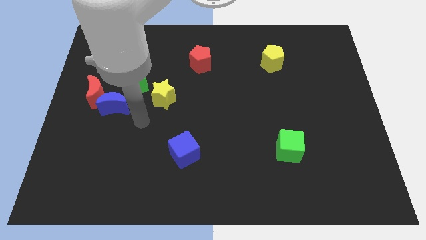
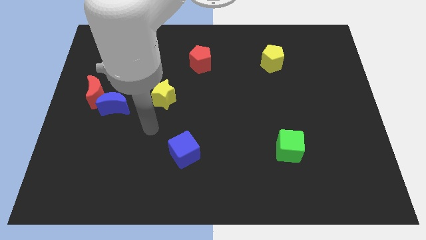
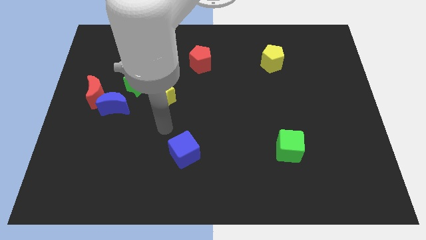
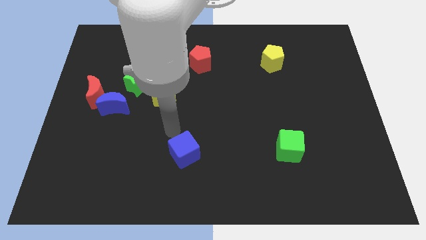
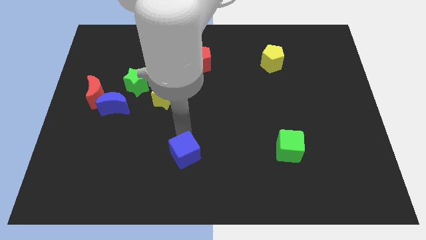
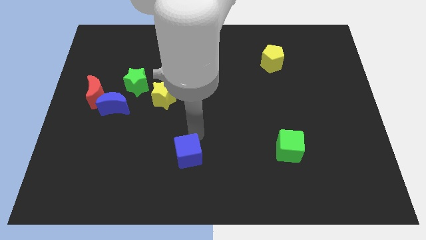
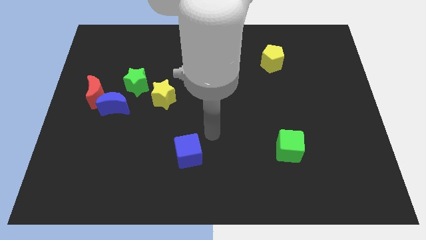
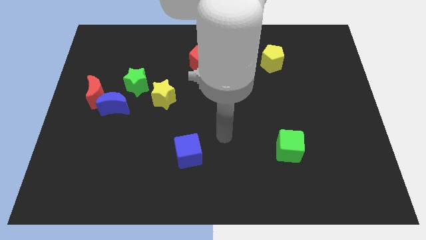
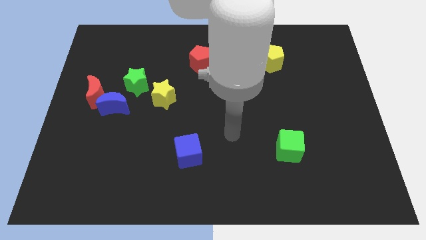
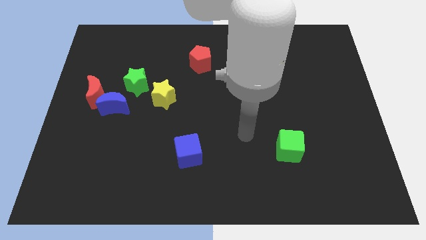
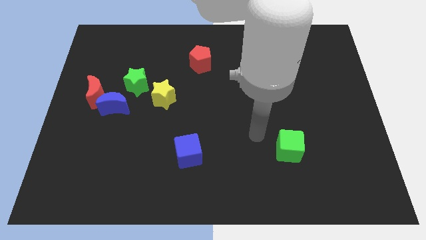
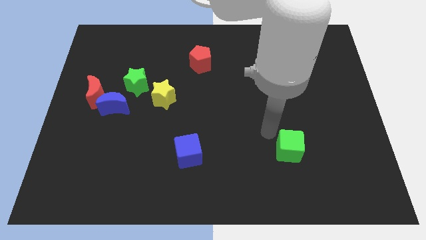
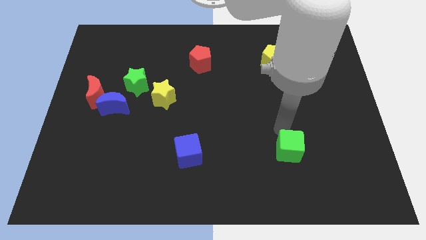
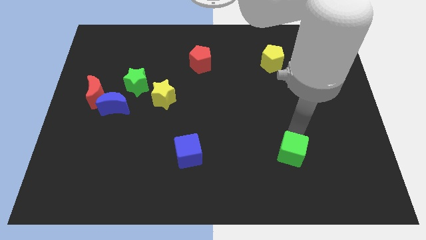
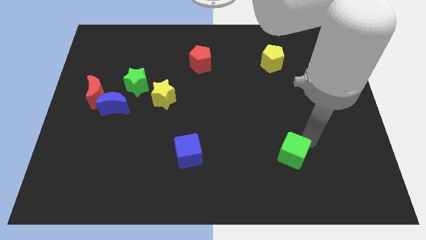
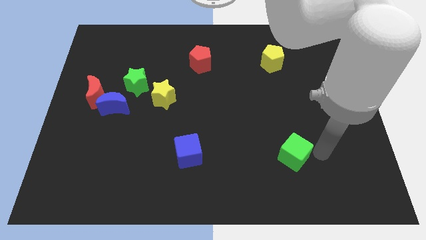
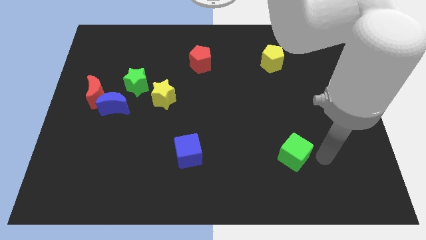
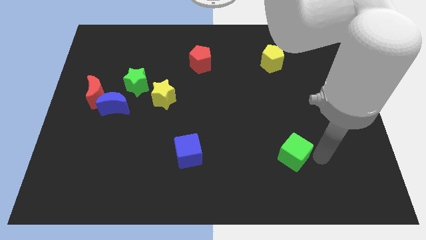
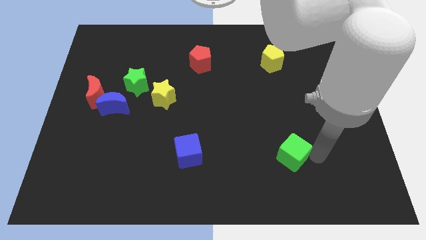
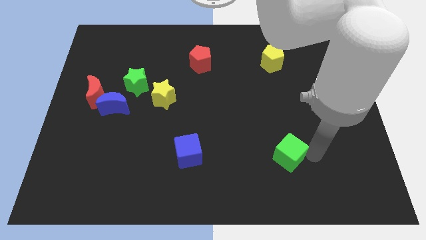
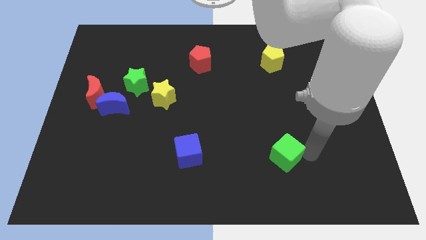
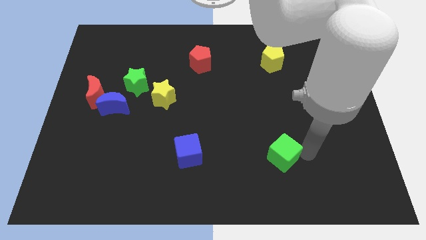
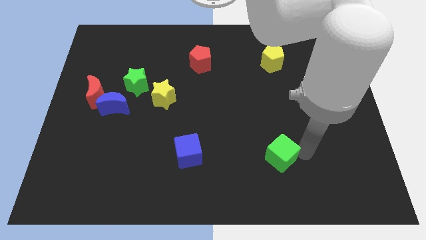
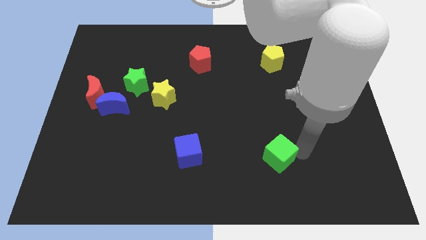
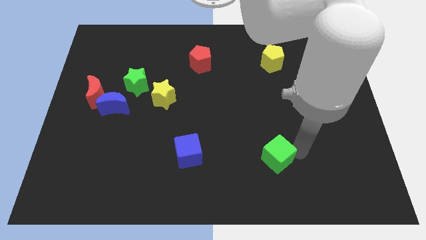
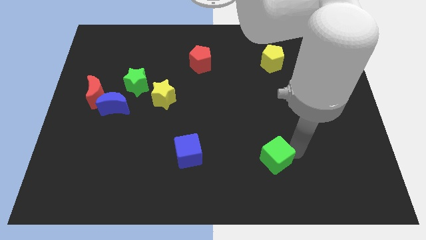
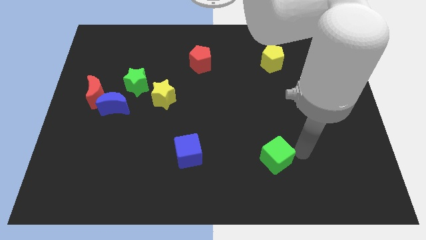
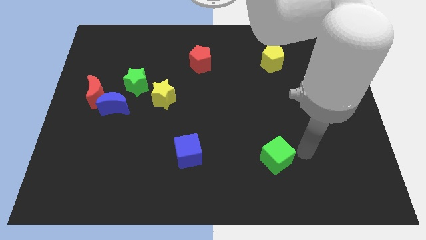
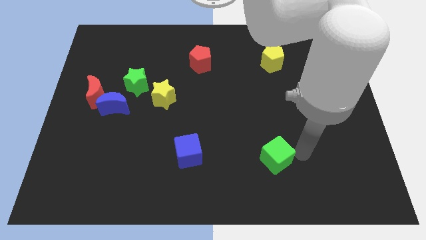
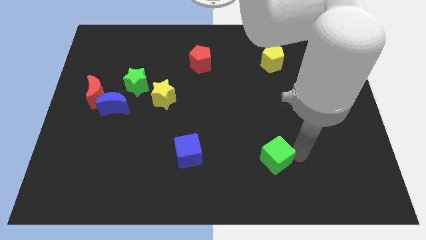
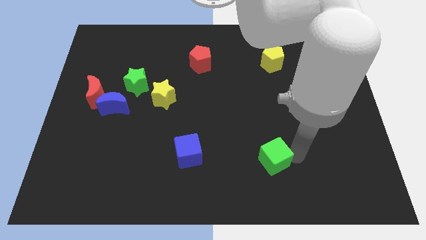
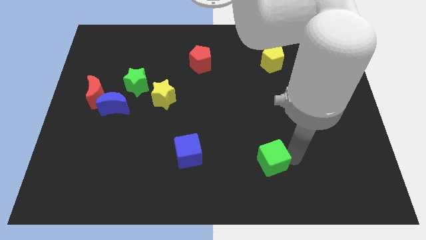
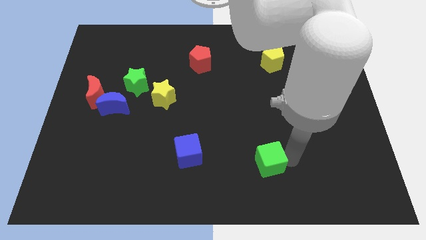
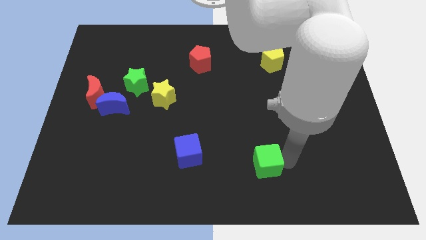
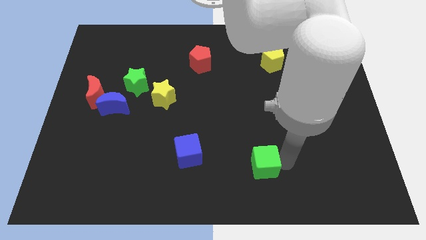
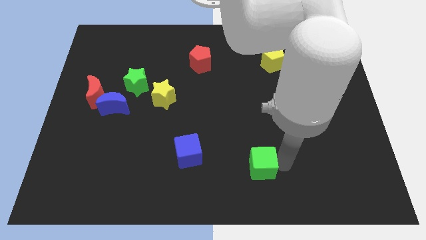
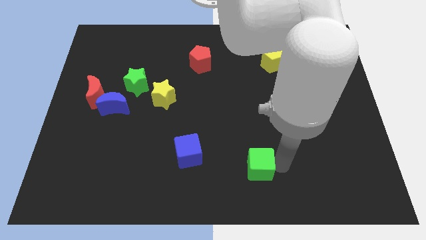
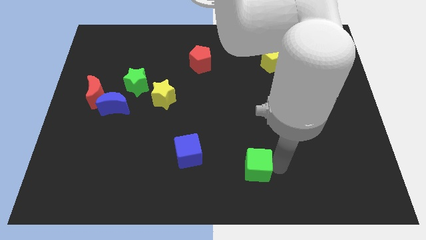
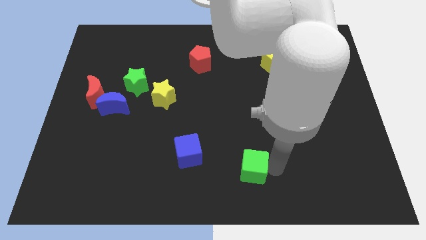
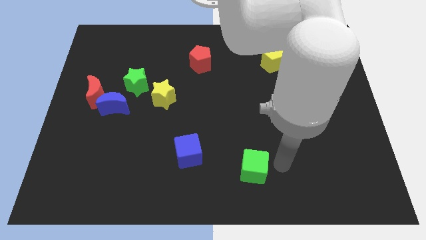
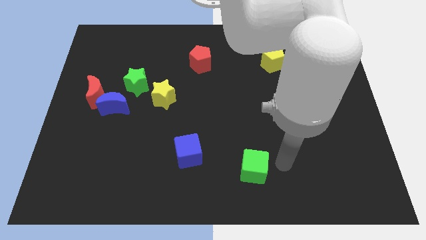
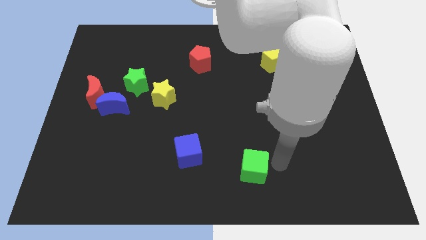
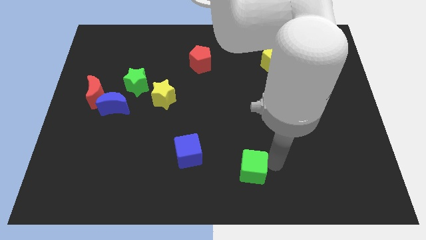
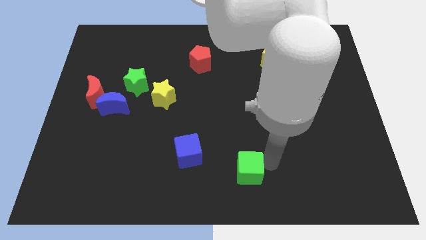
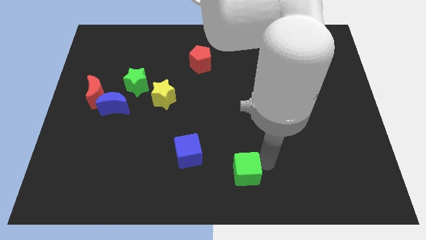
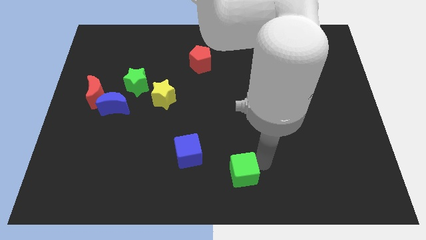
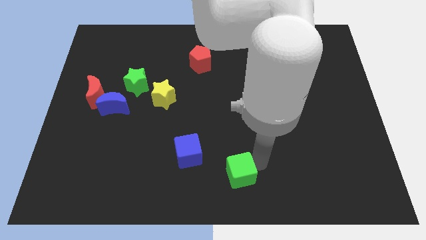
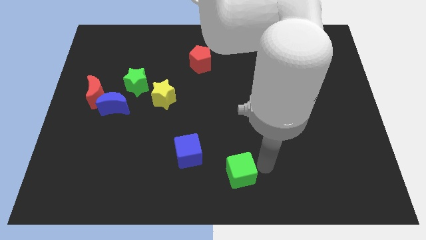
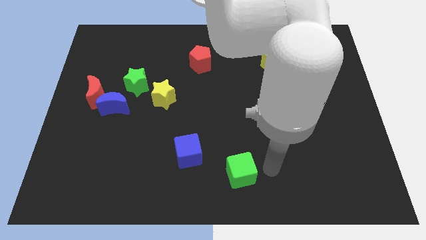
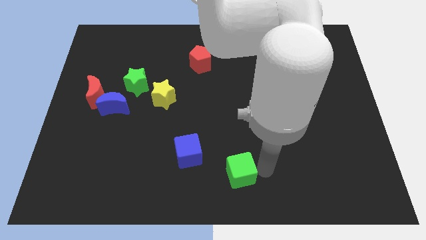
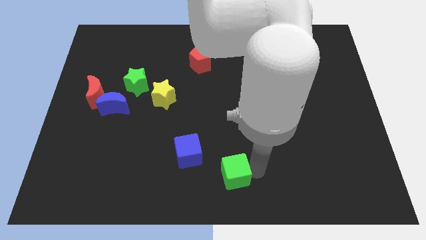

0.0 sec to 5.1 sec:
slide the green cube diagonally down and to the right of the blue cube

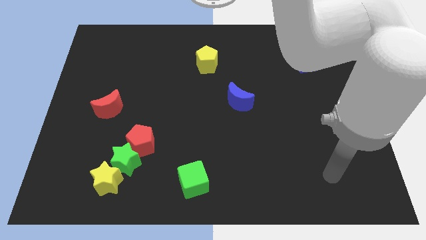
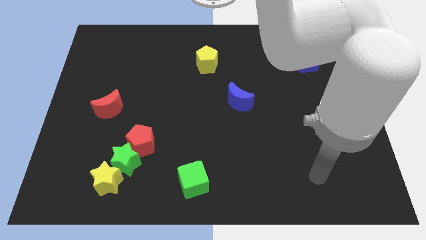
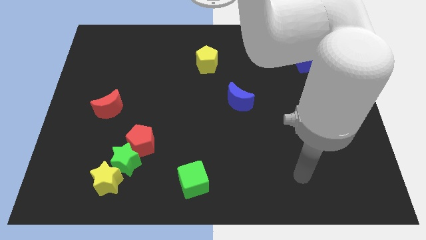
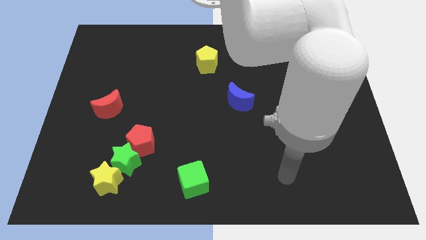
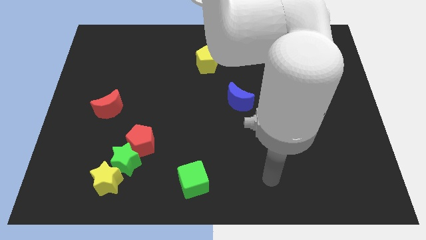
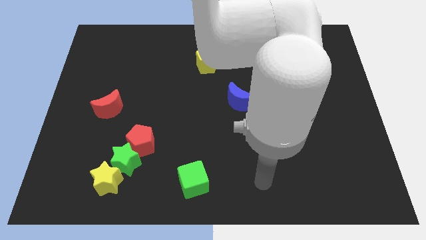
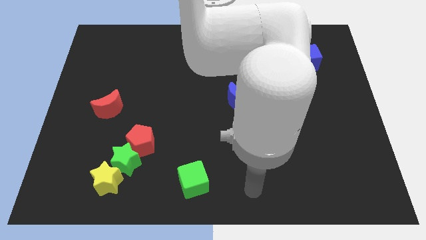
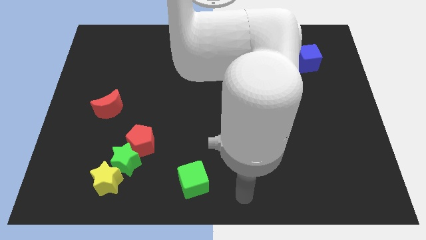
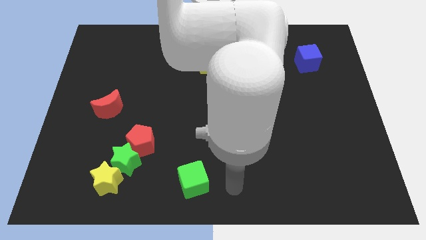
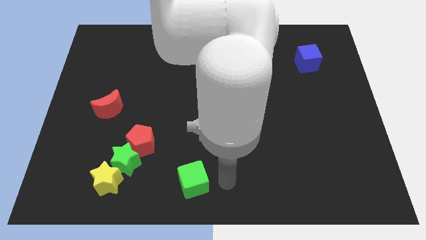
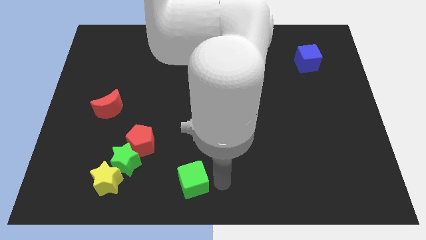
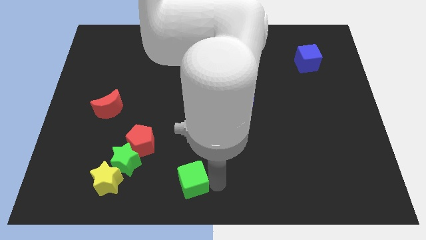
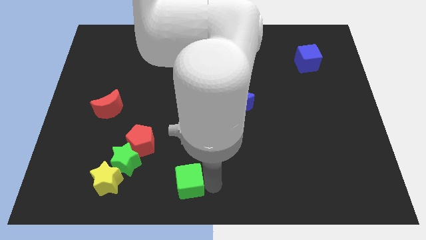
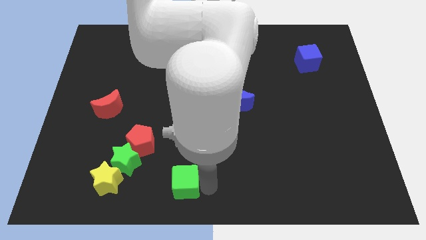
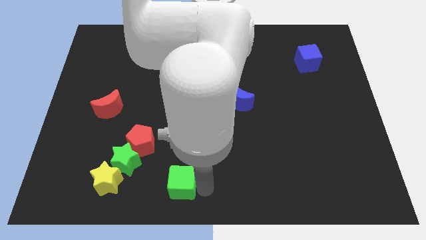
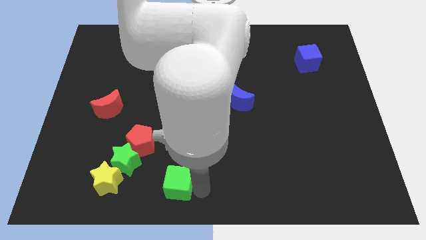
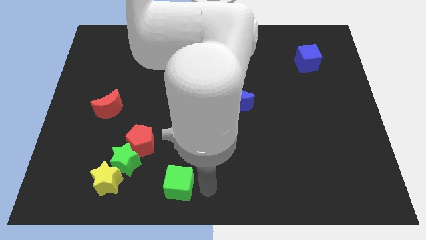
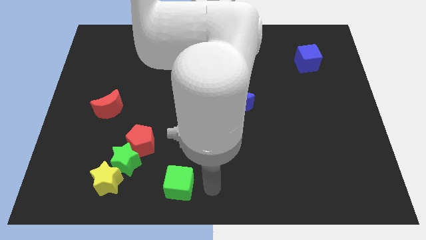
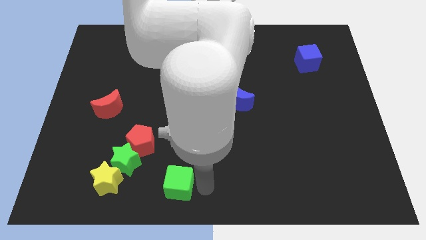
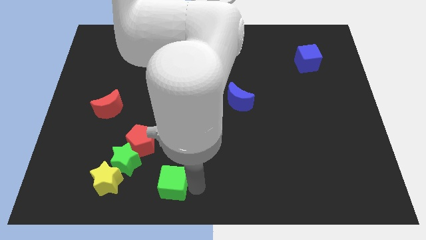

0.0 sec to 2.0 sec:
push the green cube to the bottom right side of the green star

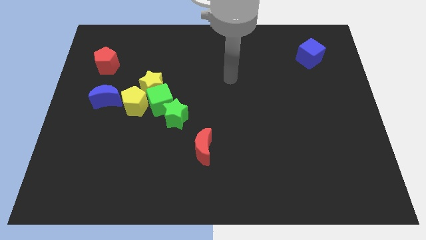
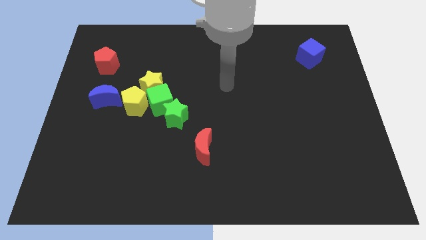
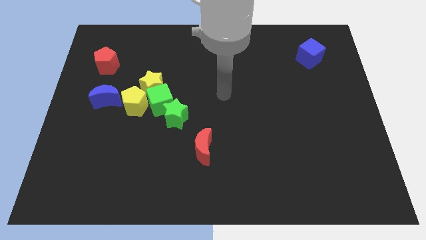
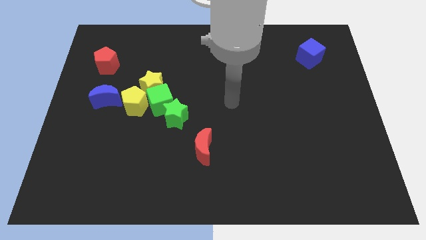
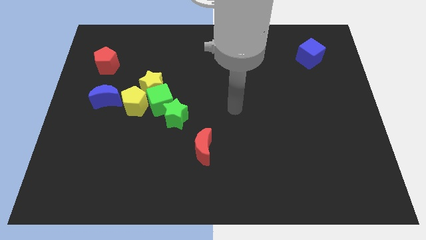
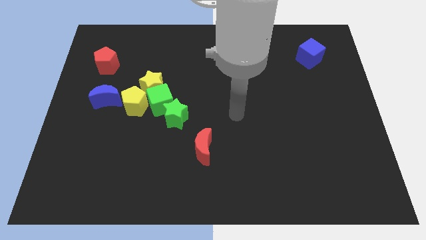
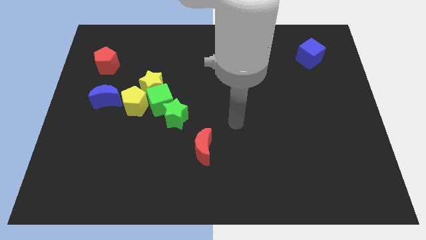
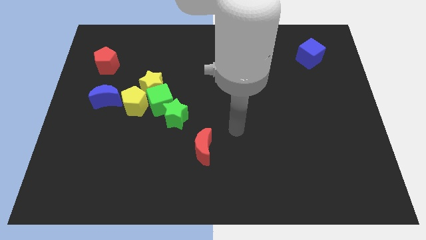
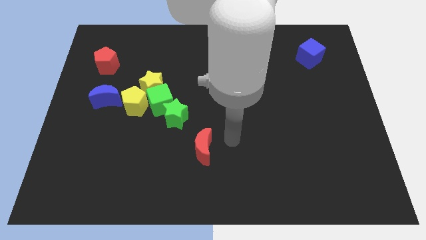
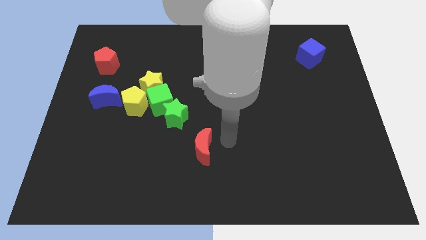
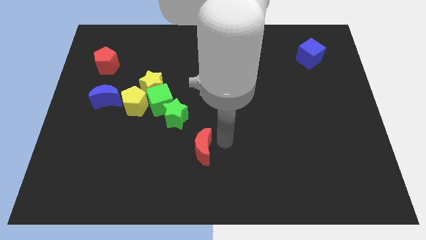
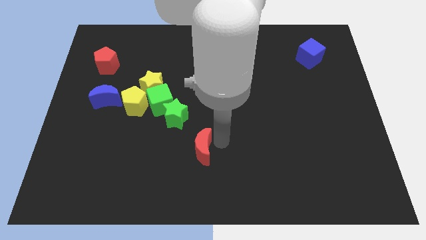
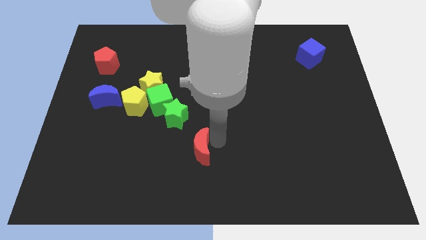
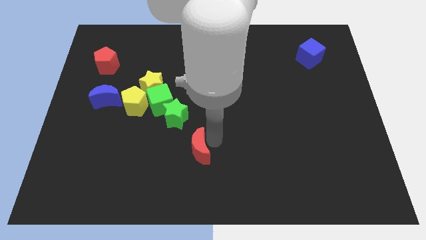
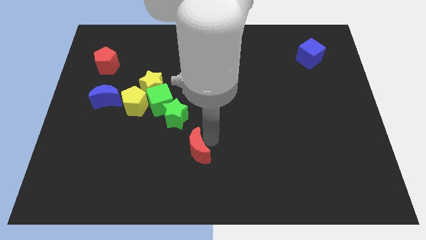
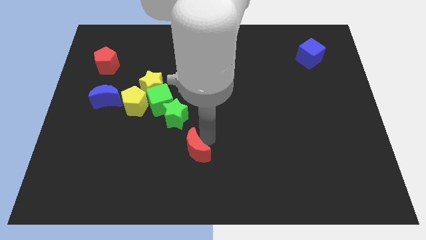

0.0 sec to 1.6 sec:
slide the red moon below the green star
